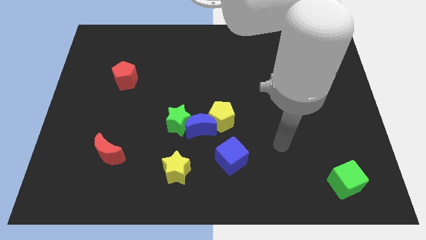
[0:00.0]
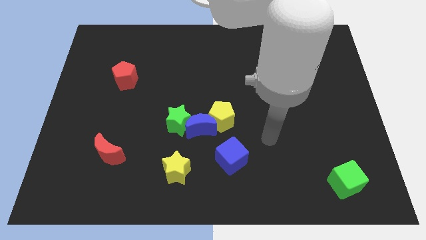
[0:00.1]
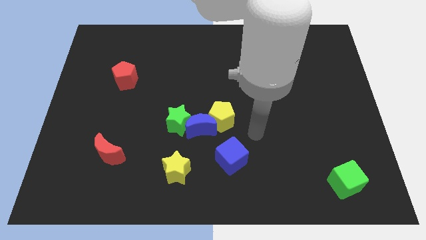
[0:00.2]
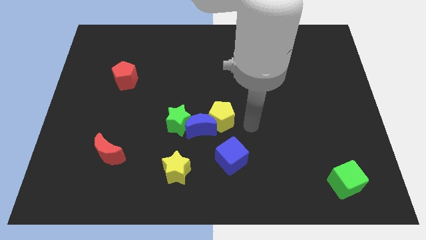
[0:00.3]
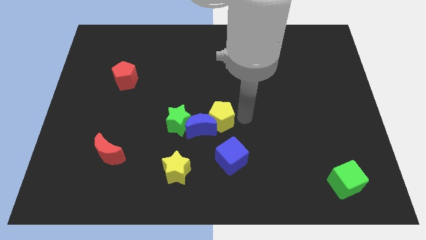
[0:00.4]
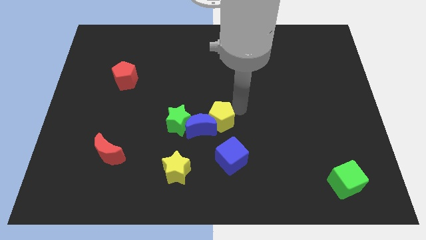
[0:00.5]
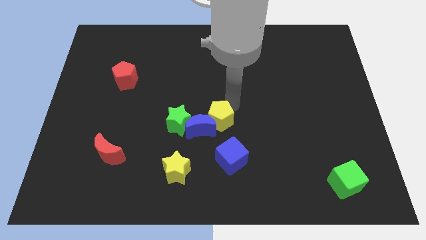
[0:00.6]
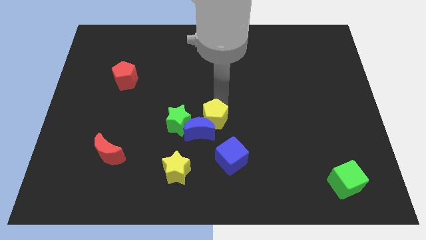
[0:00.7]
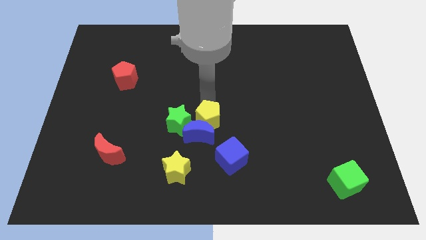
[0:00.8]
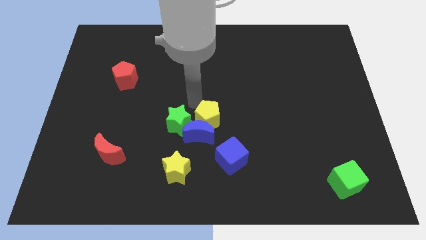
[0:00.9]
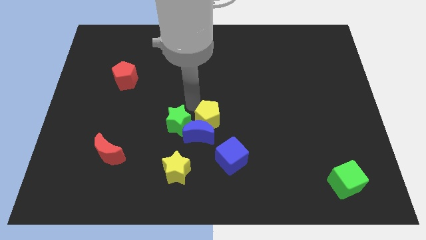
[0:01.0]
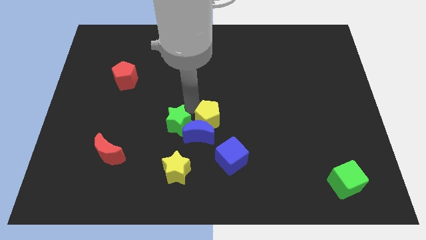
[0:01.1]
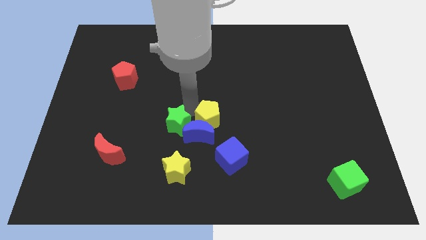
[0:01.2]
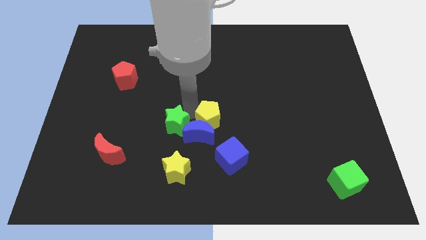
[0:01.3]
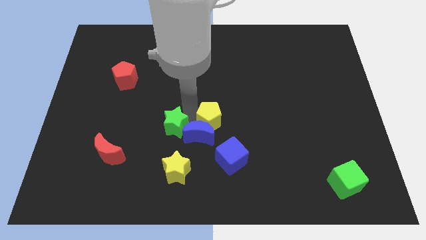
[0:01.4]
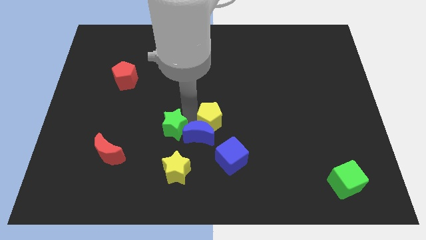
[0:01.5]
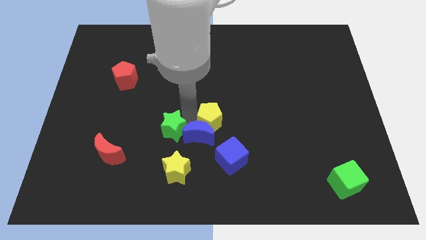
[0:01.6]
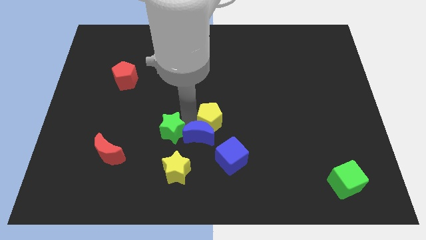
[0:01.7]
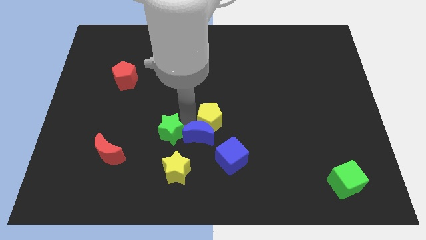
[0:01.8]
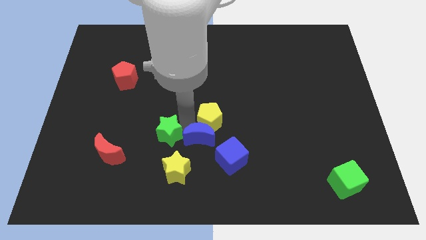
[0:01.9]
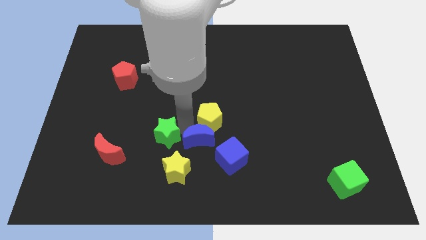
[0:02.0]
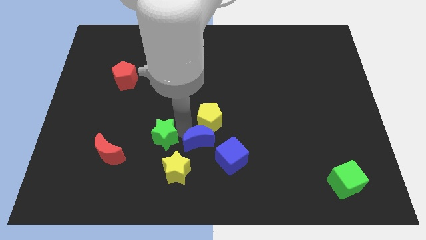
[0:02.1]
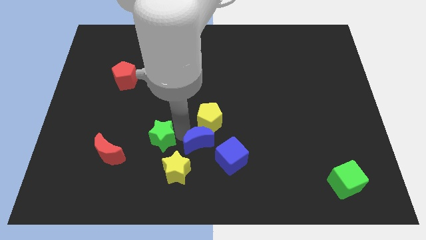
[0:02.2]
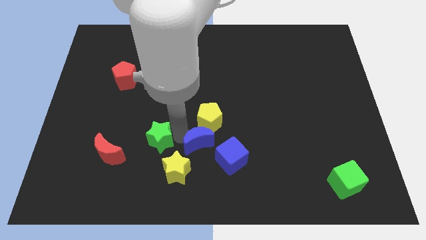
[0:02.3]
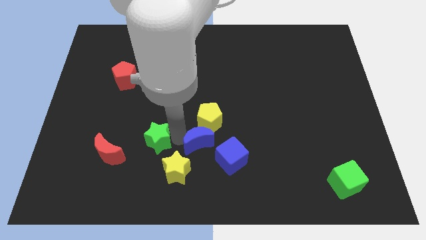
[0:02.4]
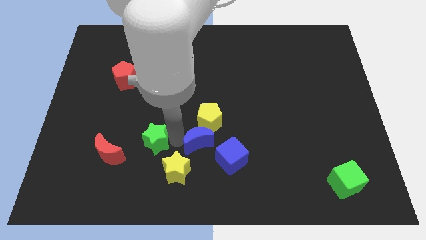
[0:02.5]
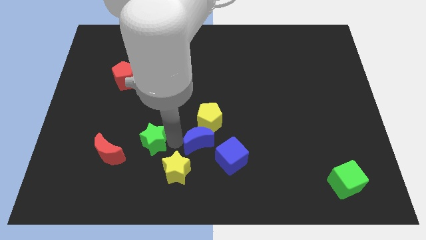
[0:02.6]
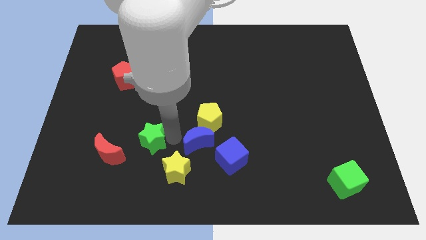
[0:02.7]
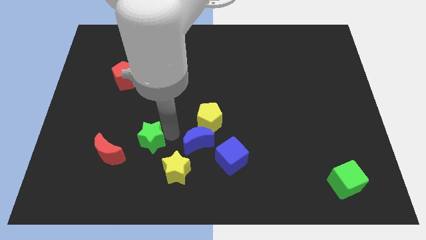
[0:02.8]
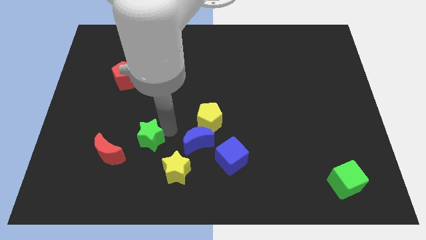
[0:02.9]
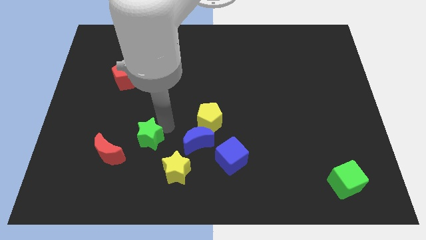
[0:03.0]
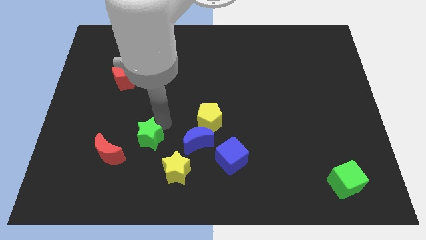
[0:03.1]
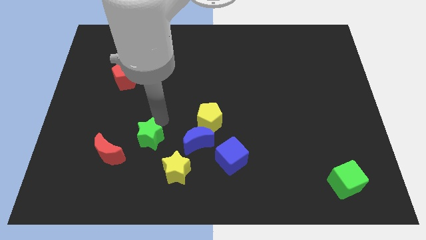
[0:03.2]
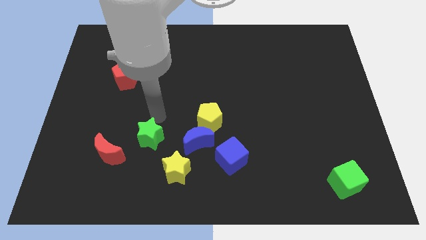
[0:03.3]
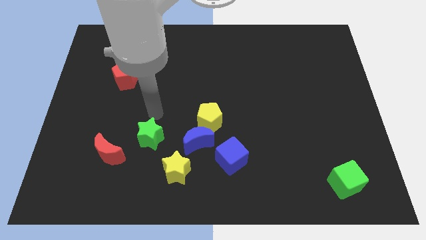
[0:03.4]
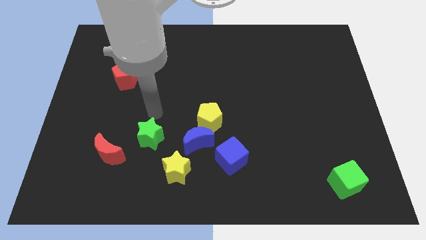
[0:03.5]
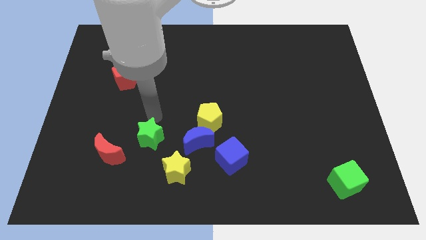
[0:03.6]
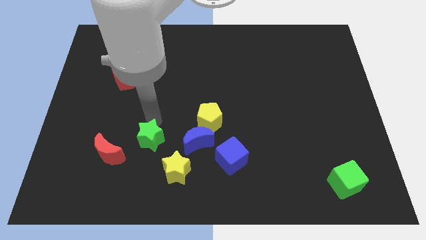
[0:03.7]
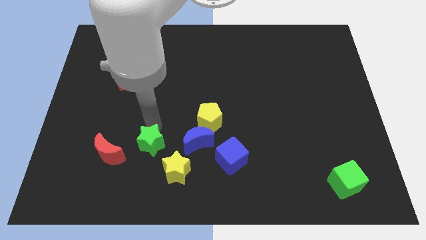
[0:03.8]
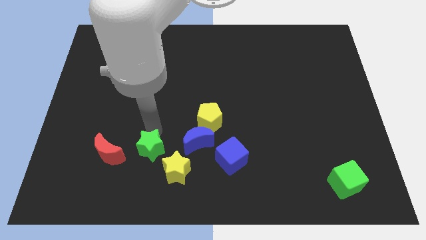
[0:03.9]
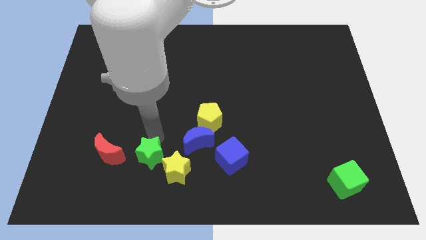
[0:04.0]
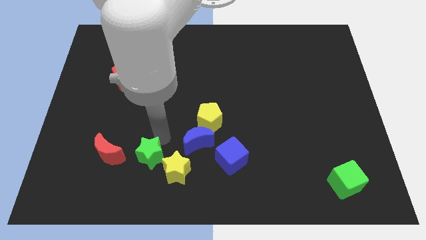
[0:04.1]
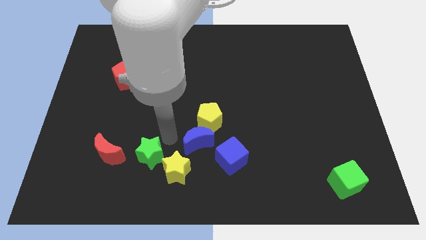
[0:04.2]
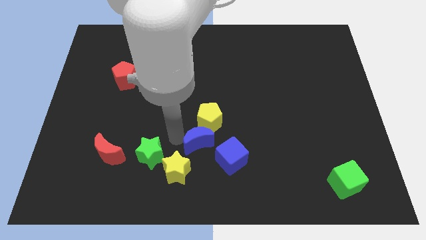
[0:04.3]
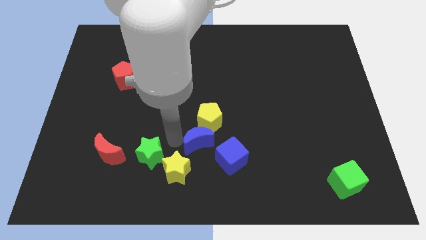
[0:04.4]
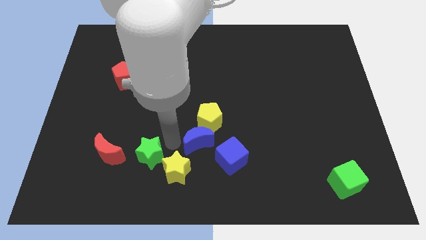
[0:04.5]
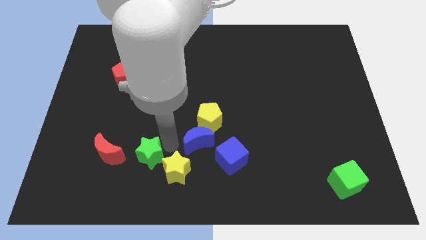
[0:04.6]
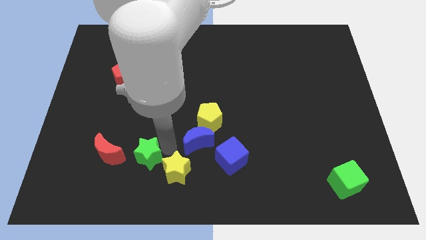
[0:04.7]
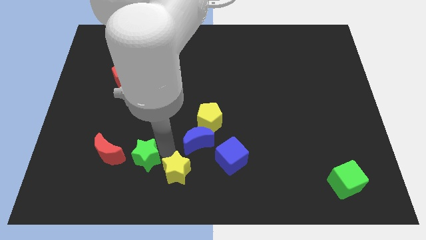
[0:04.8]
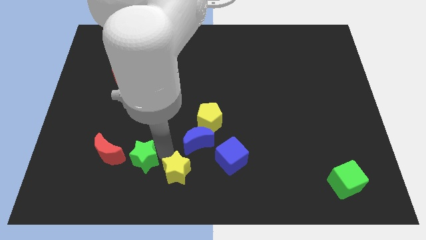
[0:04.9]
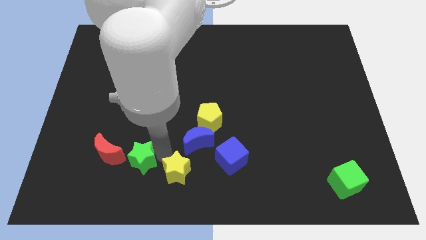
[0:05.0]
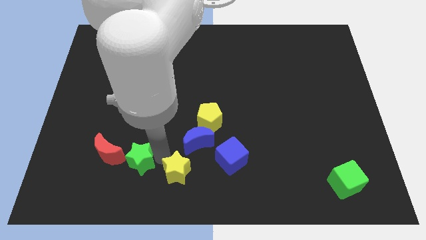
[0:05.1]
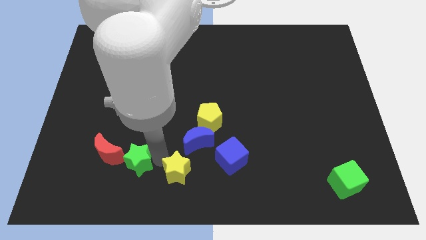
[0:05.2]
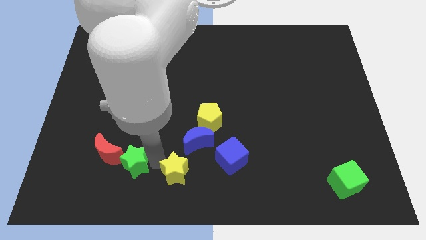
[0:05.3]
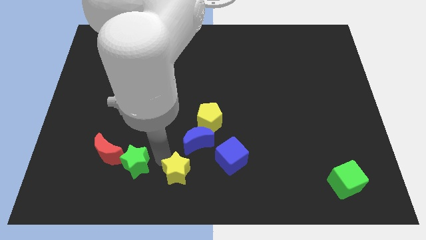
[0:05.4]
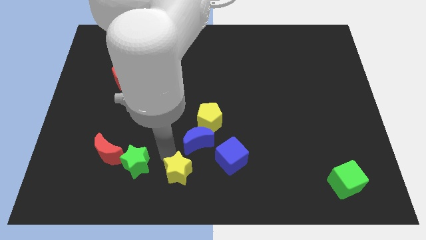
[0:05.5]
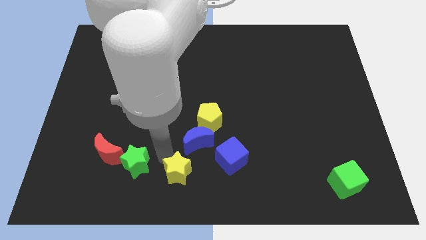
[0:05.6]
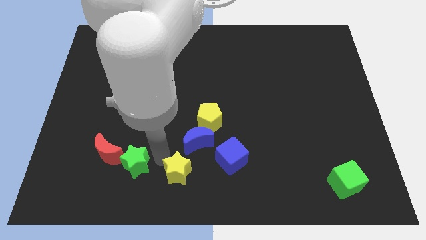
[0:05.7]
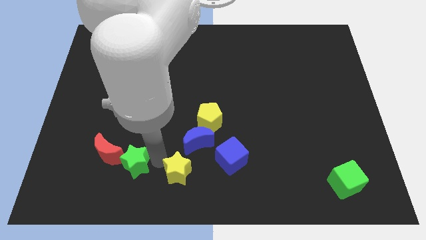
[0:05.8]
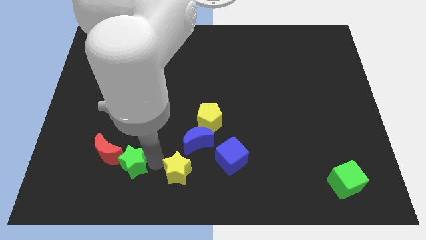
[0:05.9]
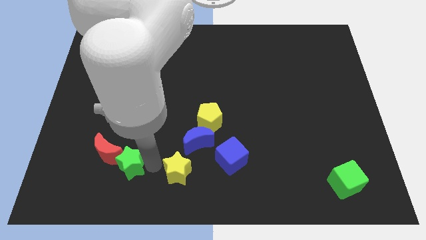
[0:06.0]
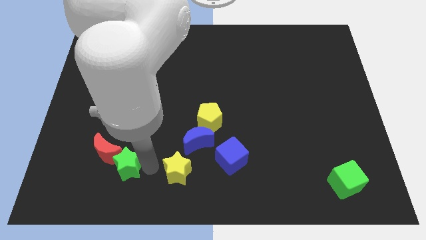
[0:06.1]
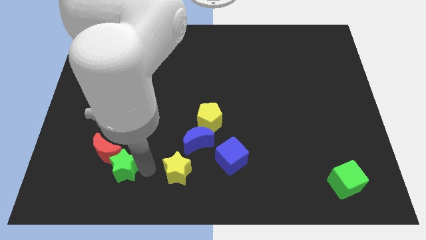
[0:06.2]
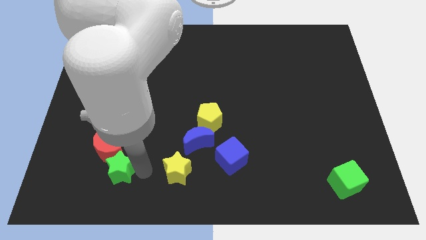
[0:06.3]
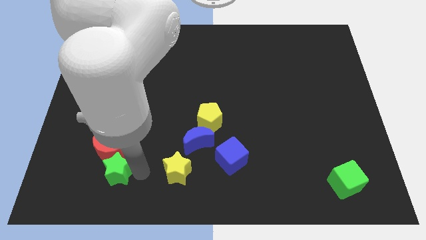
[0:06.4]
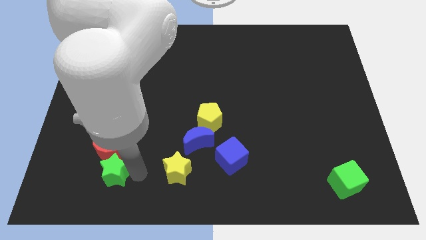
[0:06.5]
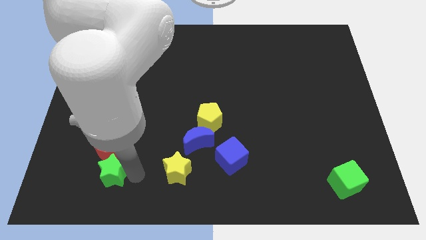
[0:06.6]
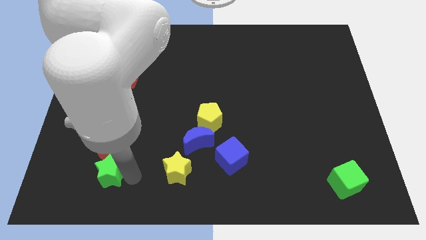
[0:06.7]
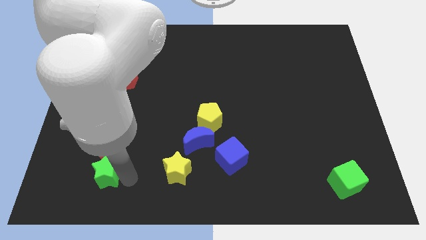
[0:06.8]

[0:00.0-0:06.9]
push the green star diagonally down and to the left of the red moon

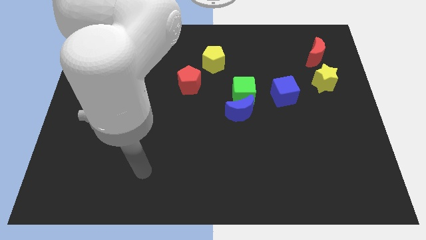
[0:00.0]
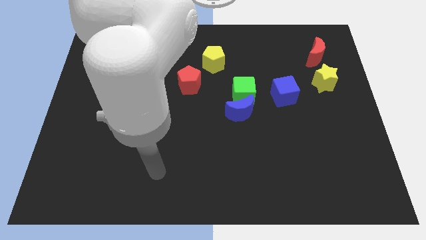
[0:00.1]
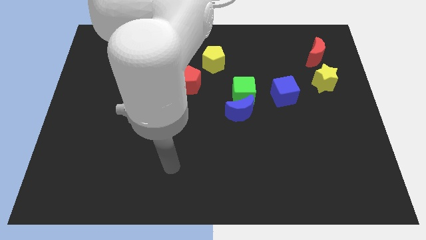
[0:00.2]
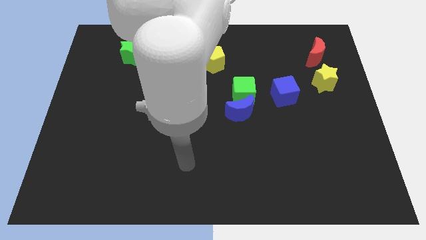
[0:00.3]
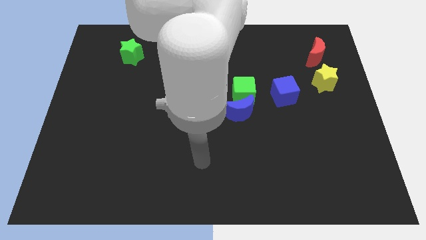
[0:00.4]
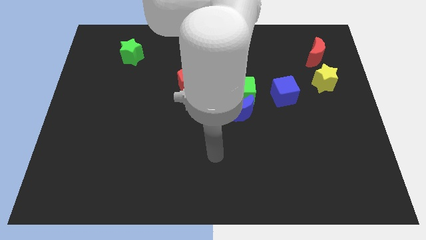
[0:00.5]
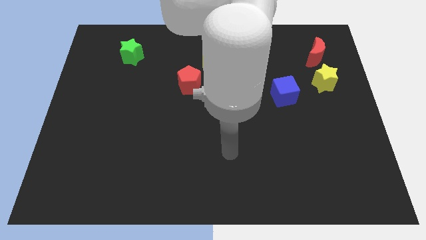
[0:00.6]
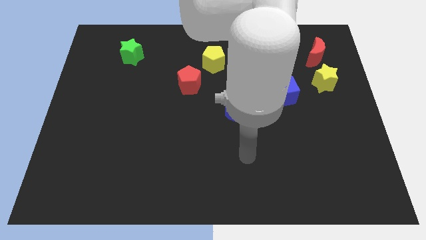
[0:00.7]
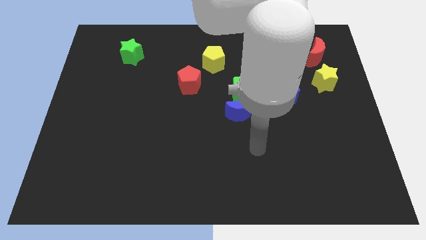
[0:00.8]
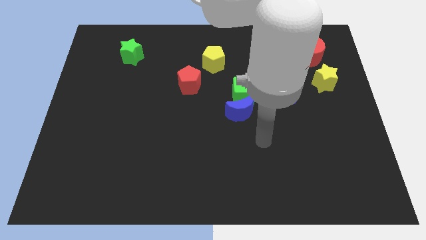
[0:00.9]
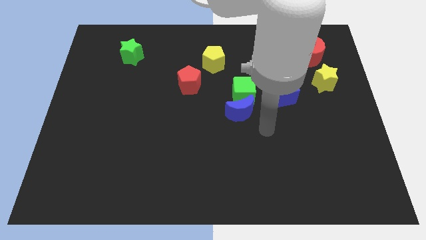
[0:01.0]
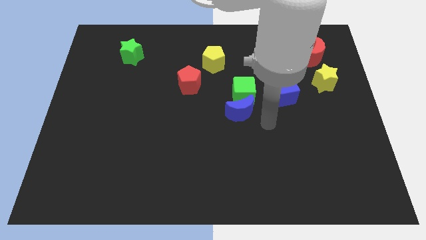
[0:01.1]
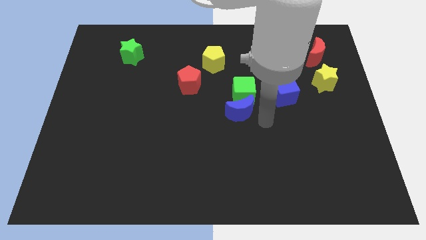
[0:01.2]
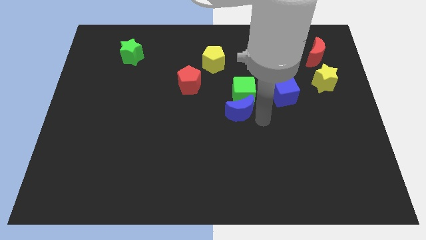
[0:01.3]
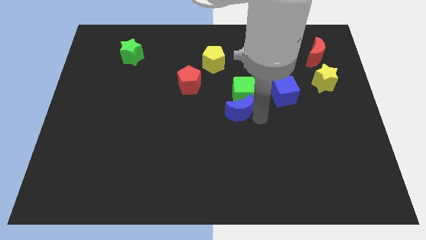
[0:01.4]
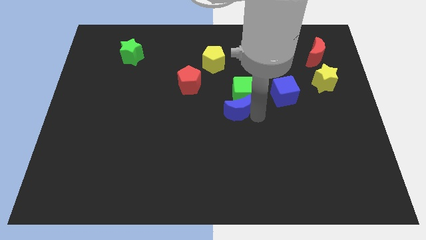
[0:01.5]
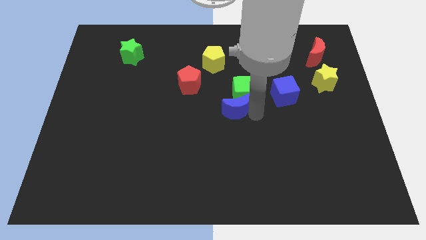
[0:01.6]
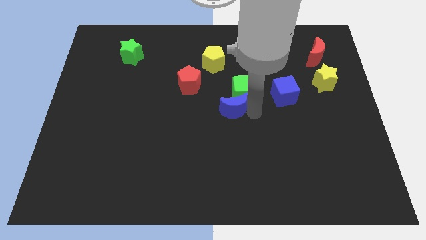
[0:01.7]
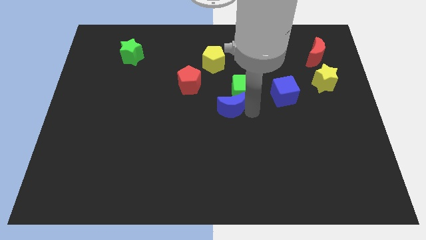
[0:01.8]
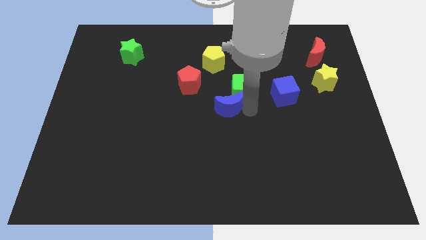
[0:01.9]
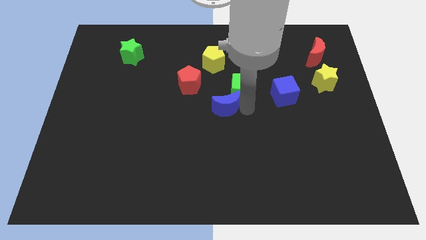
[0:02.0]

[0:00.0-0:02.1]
put the blue moon below the yellow pentagon
